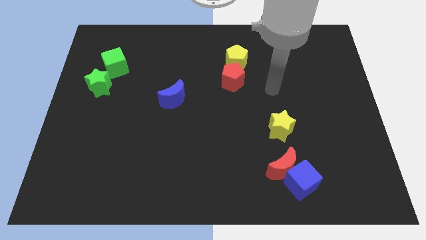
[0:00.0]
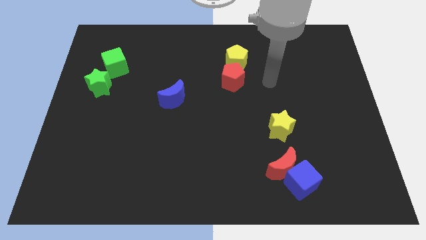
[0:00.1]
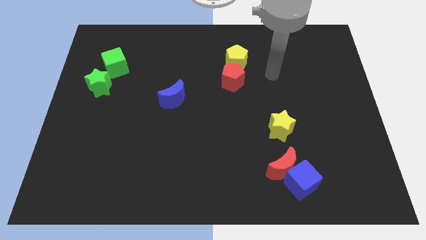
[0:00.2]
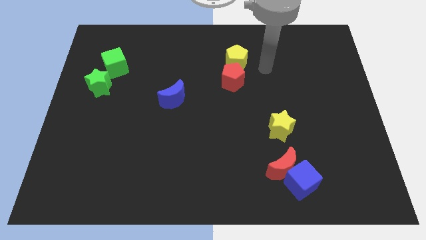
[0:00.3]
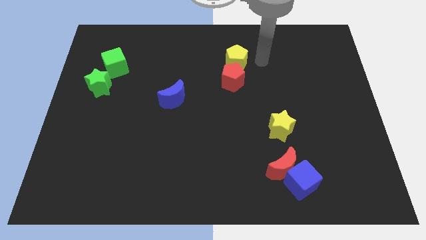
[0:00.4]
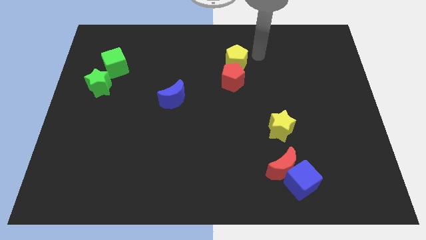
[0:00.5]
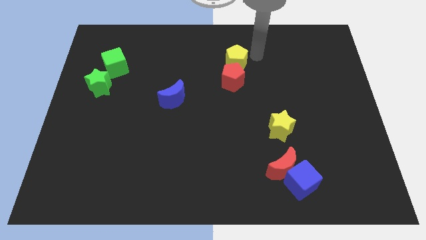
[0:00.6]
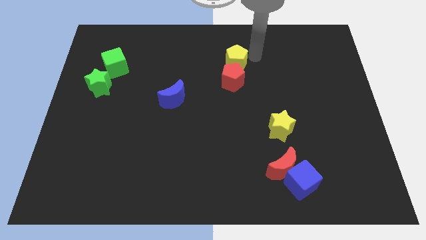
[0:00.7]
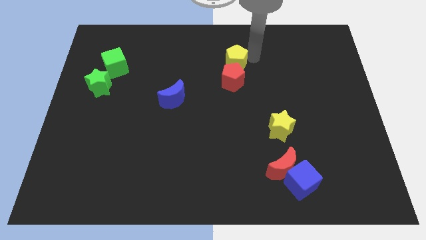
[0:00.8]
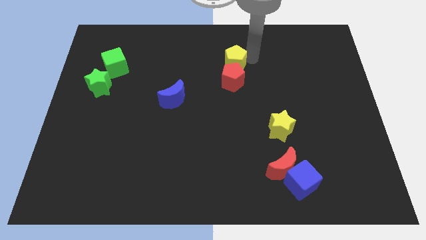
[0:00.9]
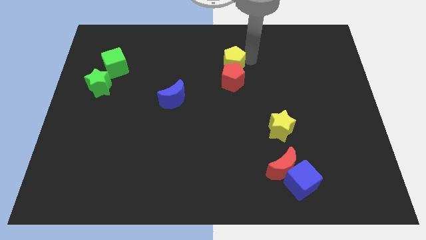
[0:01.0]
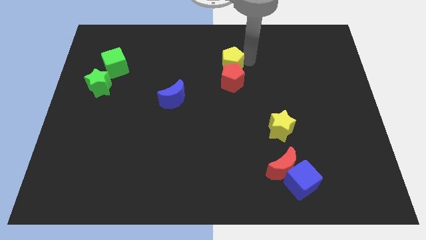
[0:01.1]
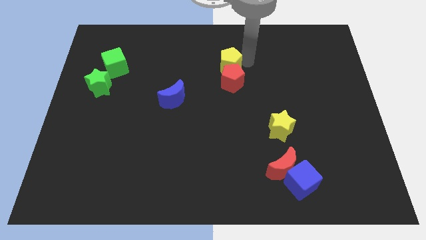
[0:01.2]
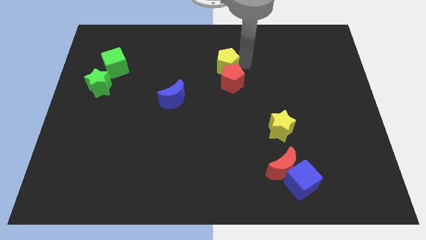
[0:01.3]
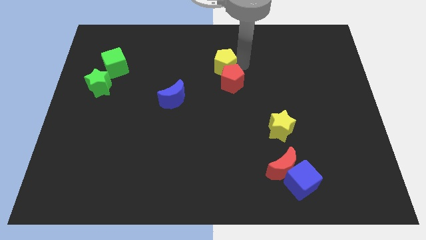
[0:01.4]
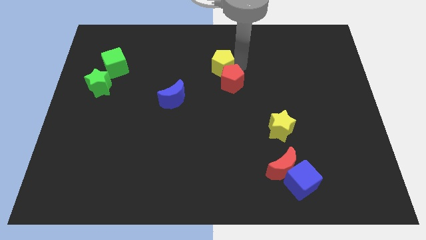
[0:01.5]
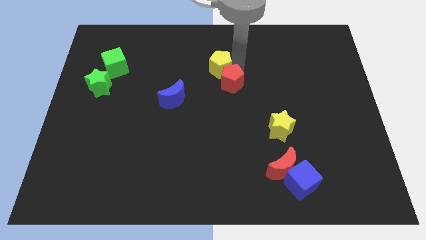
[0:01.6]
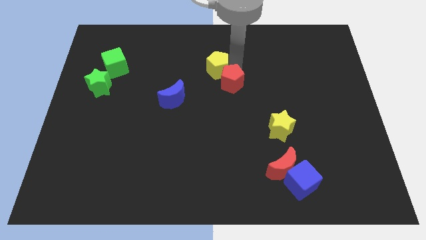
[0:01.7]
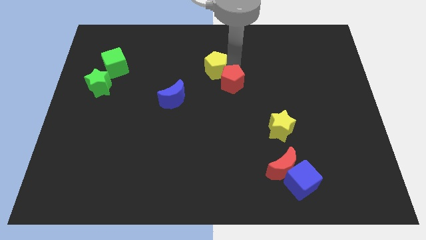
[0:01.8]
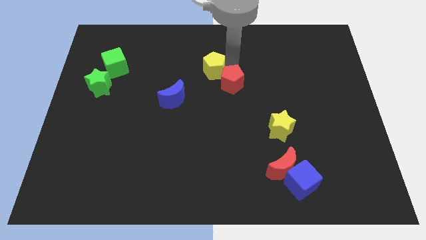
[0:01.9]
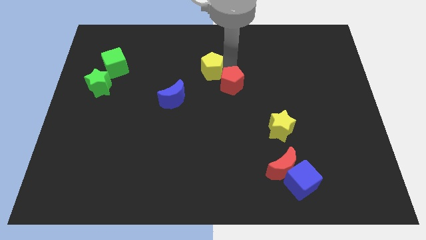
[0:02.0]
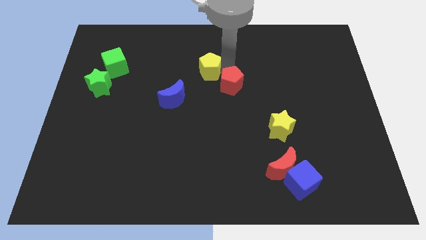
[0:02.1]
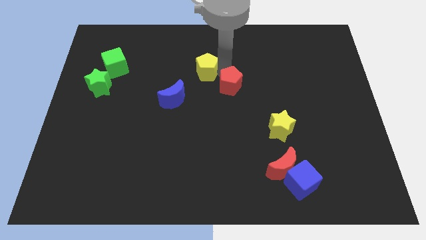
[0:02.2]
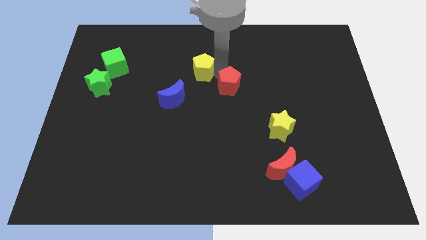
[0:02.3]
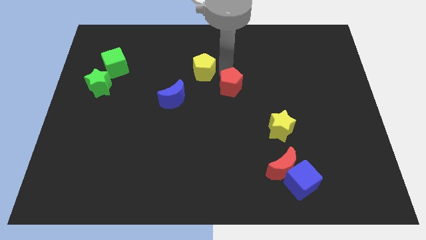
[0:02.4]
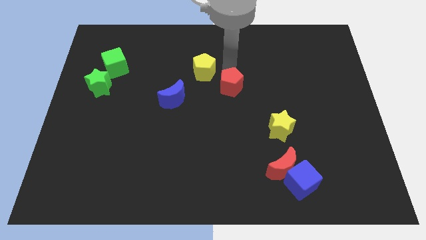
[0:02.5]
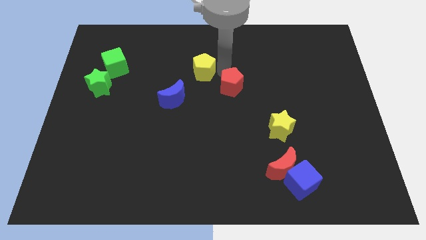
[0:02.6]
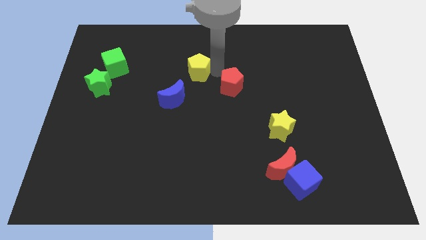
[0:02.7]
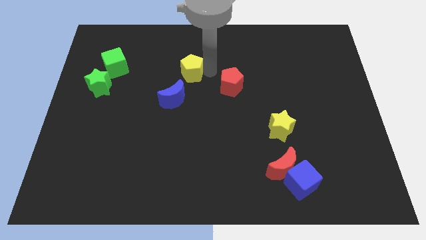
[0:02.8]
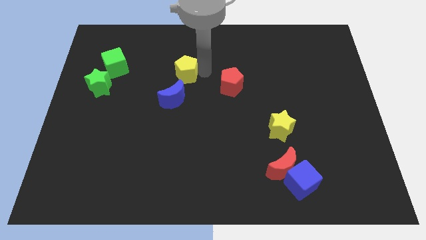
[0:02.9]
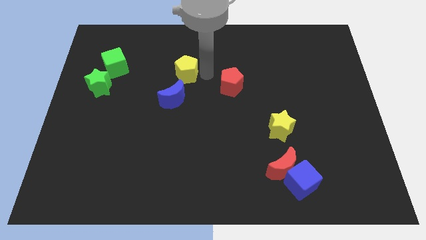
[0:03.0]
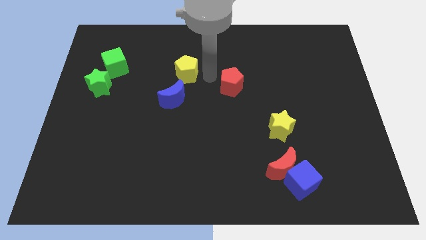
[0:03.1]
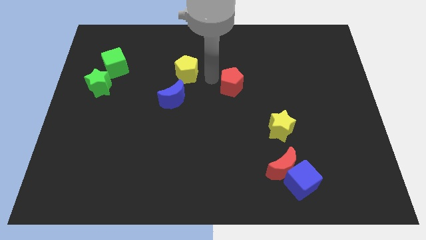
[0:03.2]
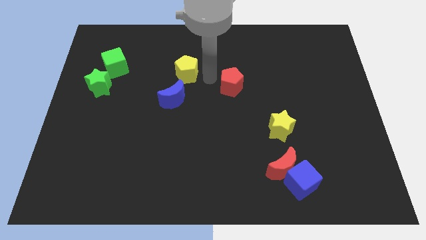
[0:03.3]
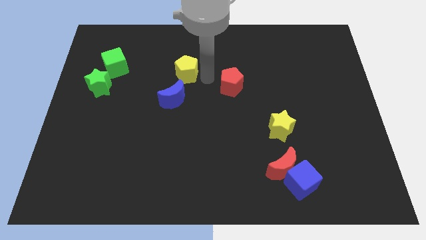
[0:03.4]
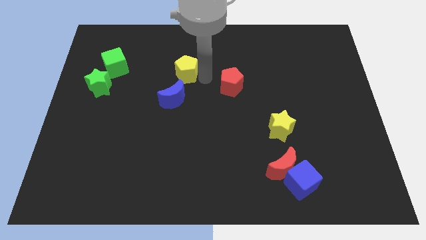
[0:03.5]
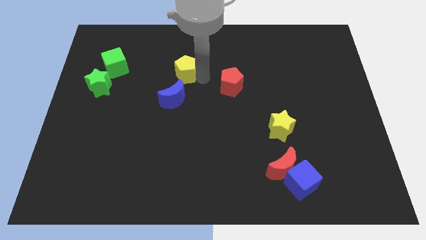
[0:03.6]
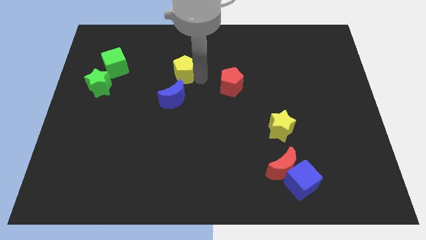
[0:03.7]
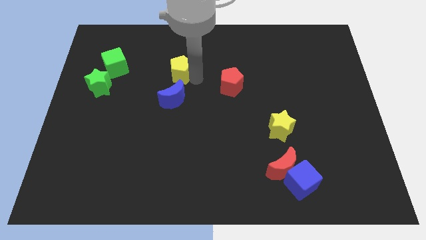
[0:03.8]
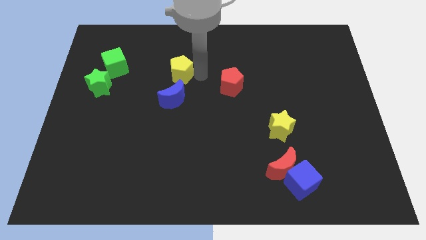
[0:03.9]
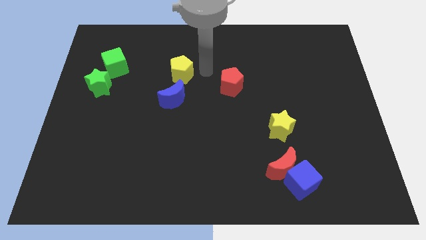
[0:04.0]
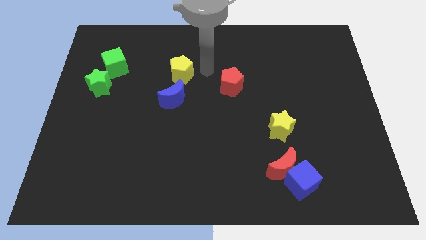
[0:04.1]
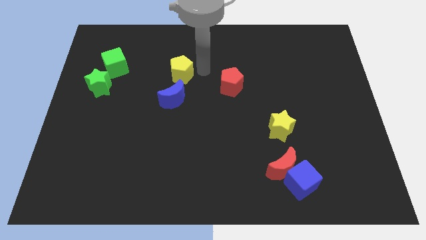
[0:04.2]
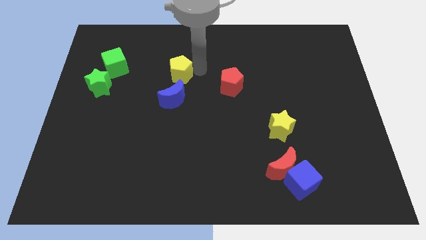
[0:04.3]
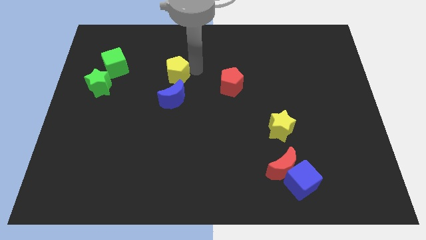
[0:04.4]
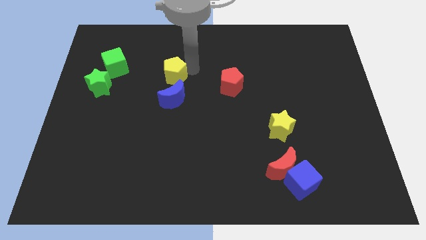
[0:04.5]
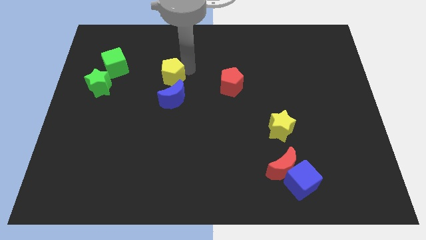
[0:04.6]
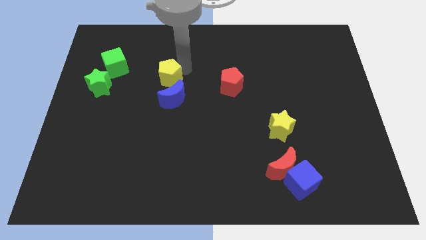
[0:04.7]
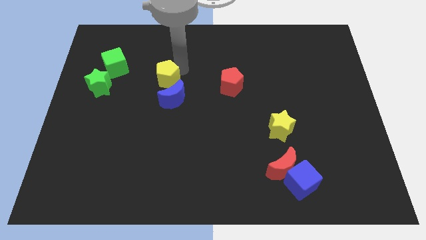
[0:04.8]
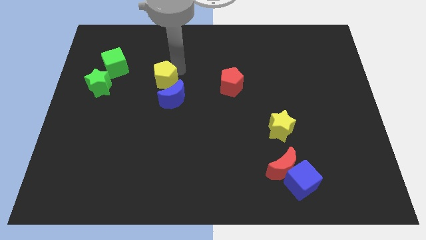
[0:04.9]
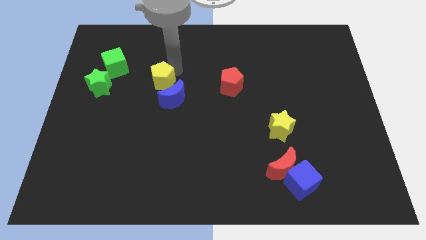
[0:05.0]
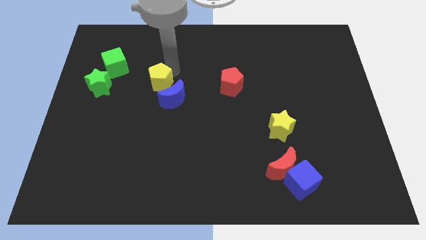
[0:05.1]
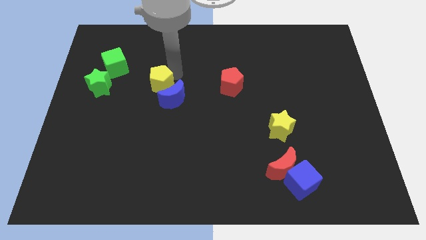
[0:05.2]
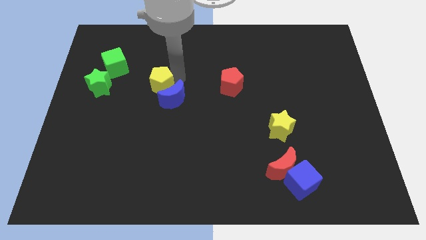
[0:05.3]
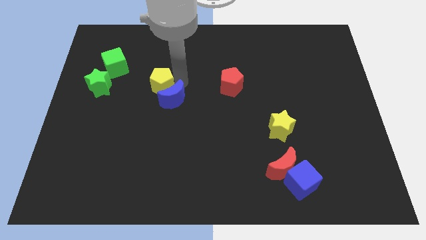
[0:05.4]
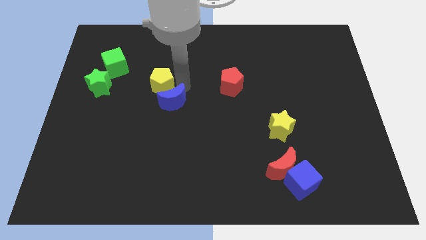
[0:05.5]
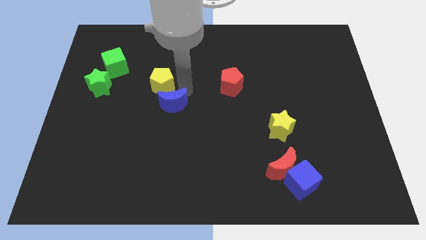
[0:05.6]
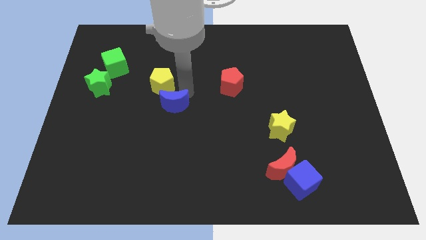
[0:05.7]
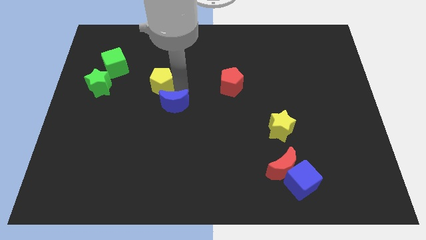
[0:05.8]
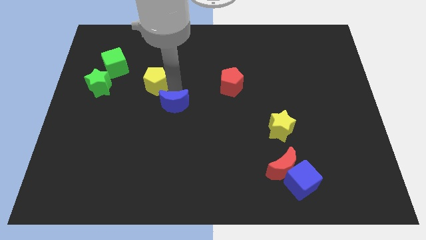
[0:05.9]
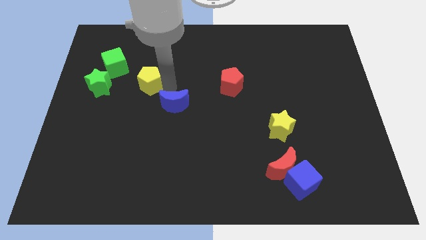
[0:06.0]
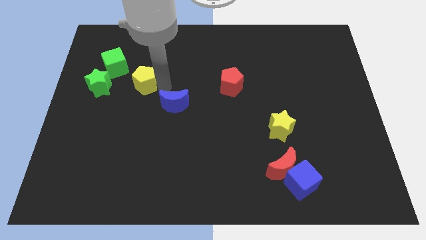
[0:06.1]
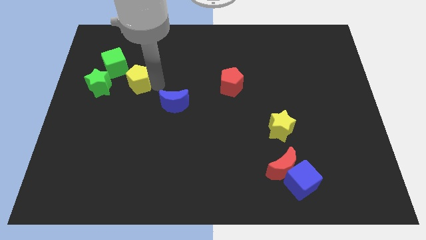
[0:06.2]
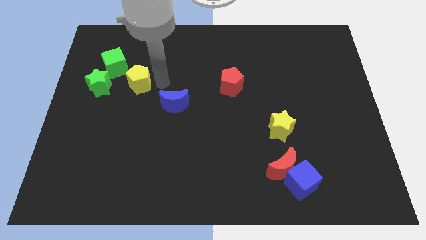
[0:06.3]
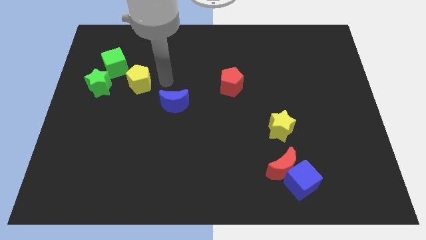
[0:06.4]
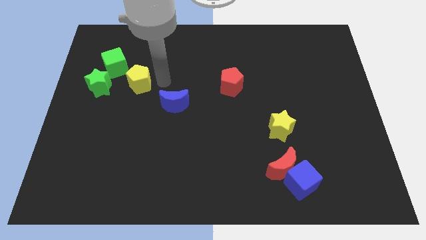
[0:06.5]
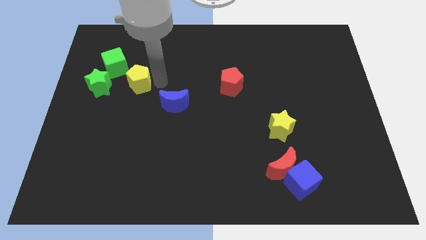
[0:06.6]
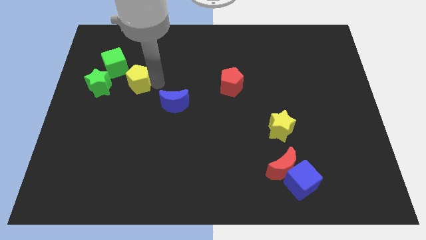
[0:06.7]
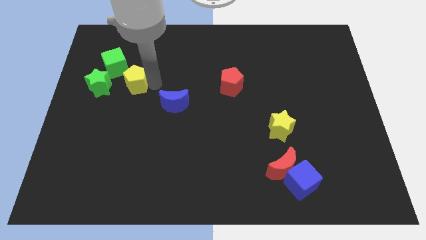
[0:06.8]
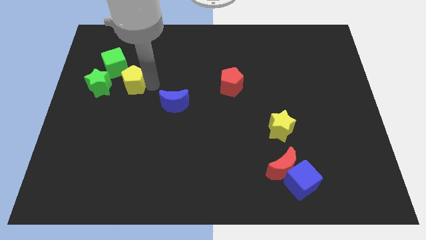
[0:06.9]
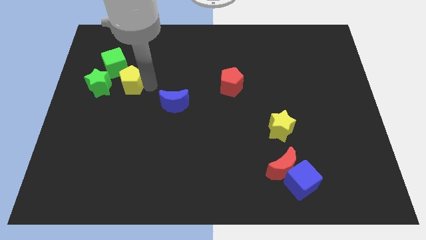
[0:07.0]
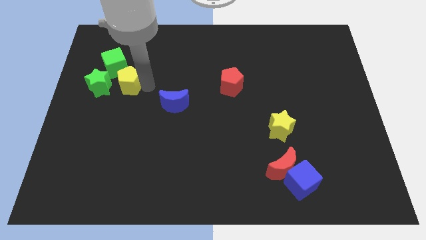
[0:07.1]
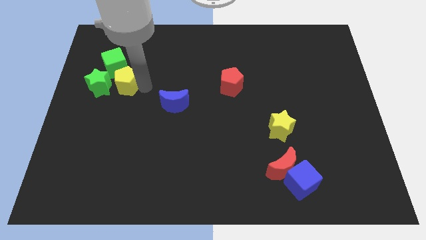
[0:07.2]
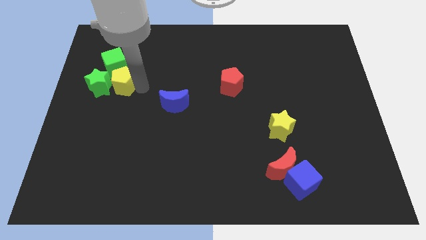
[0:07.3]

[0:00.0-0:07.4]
move the yellow pentagon towards the green star
